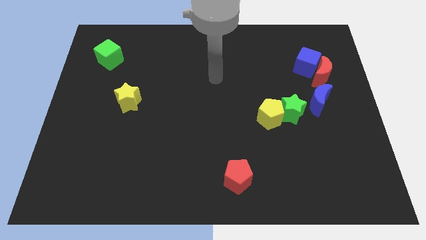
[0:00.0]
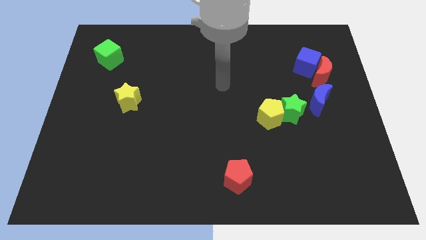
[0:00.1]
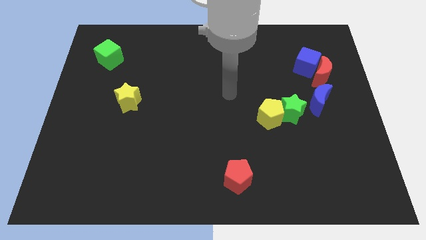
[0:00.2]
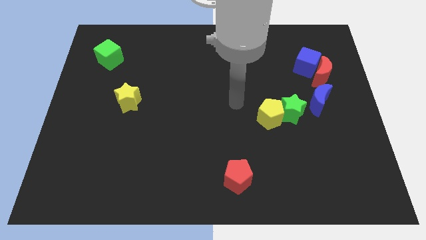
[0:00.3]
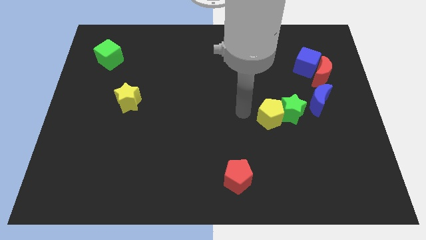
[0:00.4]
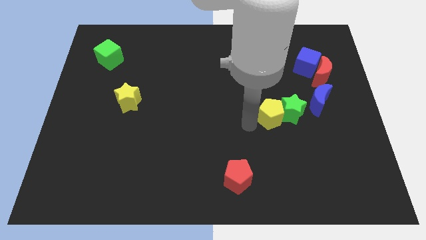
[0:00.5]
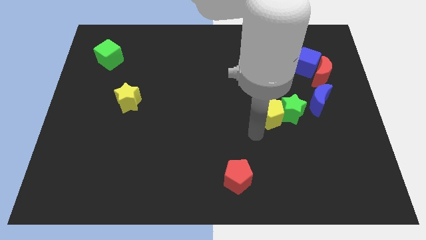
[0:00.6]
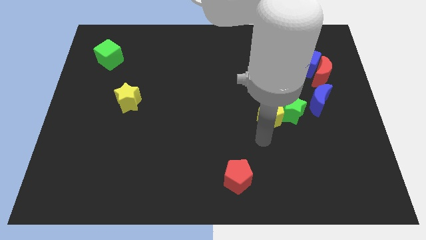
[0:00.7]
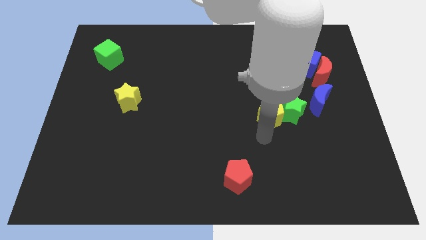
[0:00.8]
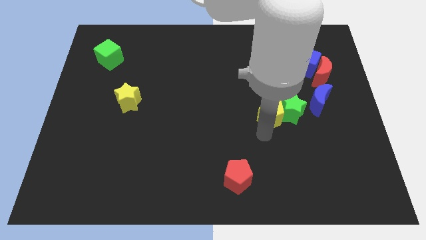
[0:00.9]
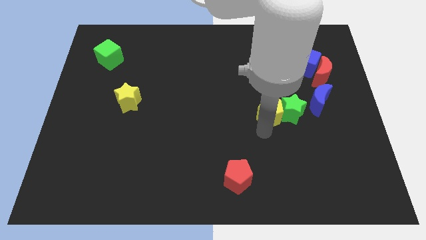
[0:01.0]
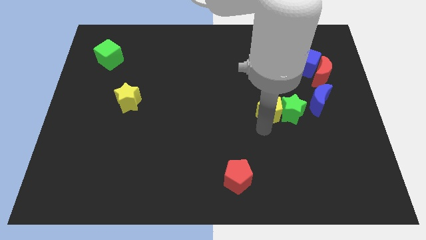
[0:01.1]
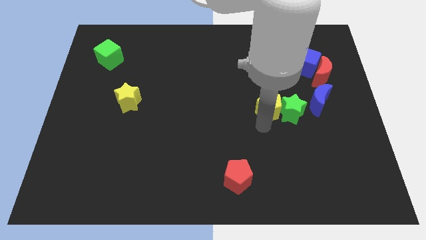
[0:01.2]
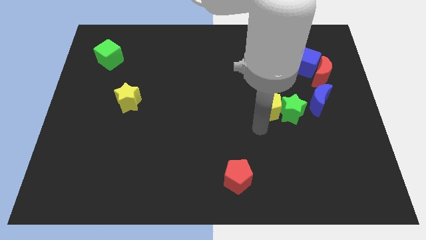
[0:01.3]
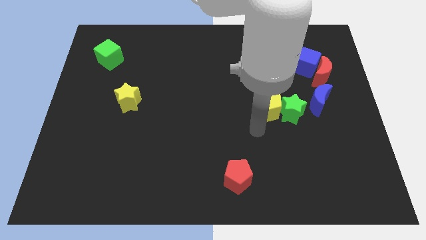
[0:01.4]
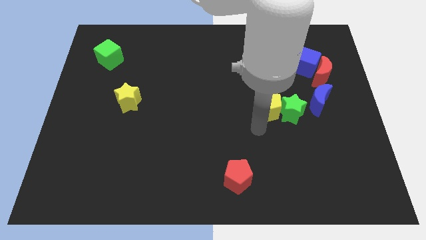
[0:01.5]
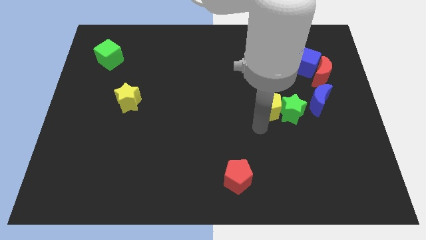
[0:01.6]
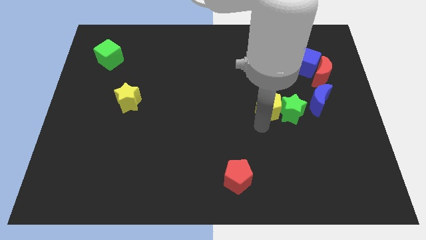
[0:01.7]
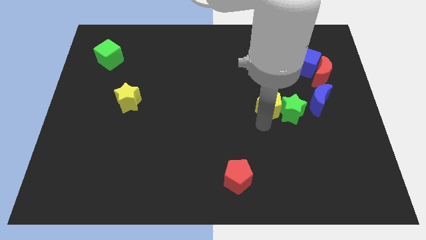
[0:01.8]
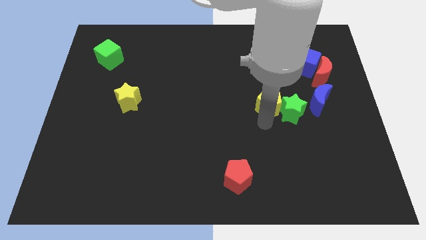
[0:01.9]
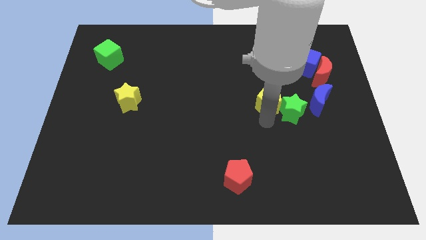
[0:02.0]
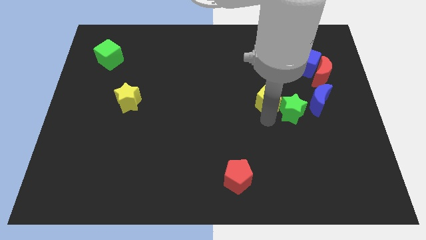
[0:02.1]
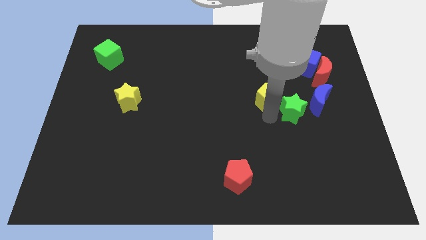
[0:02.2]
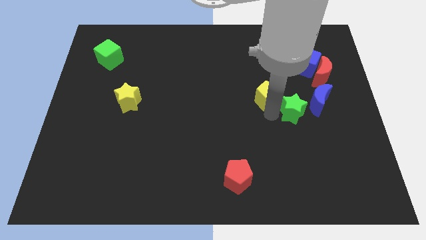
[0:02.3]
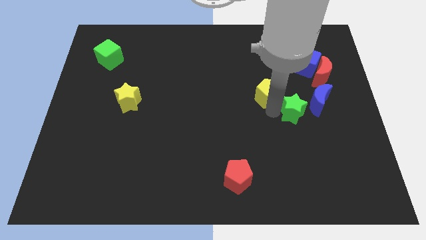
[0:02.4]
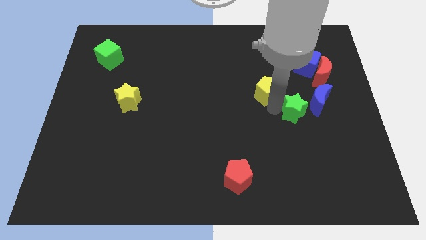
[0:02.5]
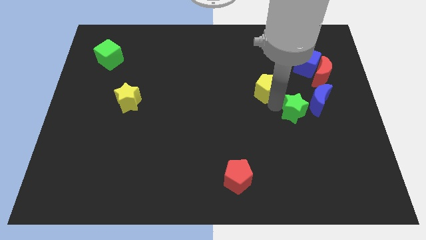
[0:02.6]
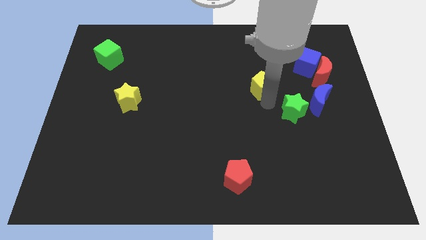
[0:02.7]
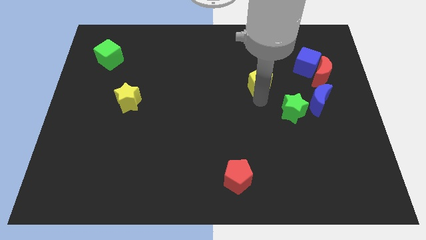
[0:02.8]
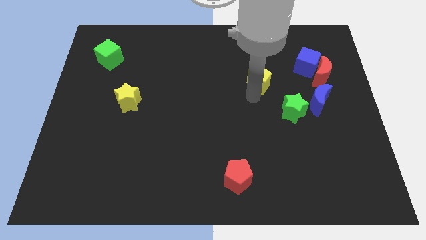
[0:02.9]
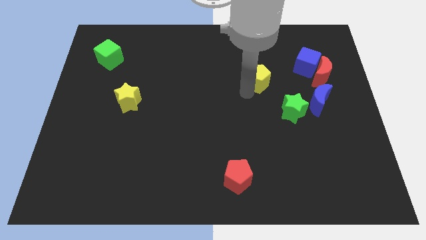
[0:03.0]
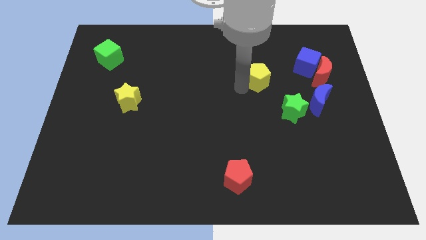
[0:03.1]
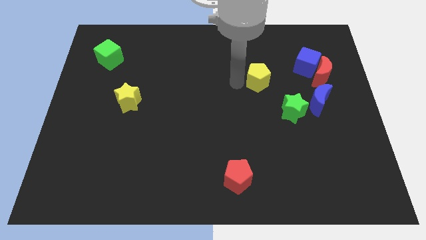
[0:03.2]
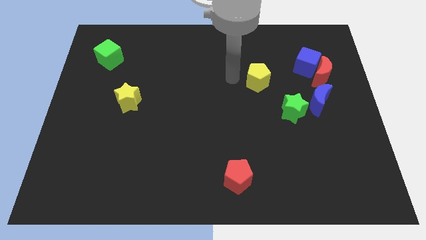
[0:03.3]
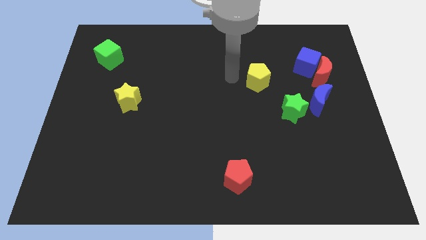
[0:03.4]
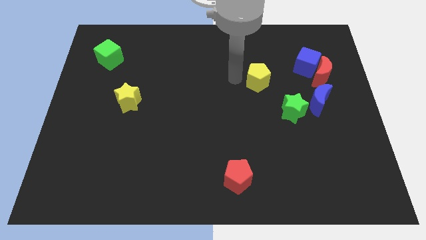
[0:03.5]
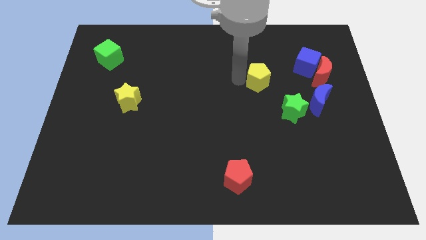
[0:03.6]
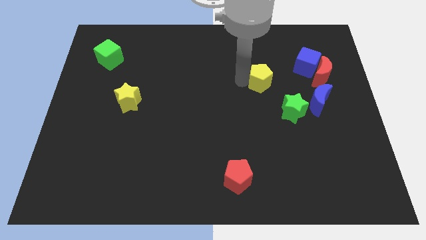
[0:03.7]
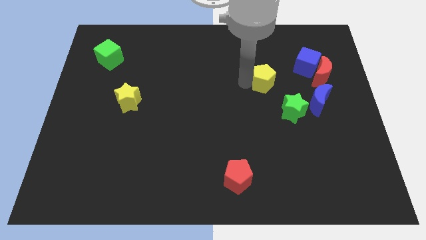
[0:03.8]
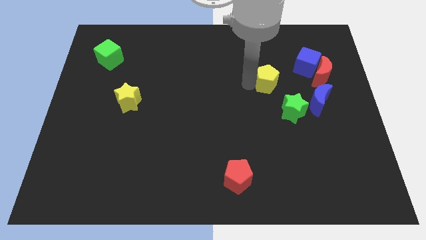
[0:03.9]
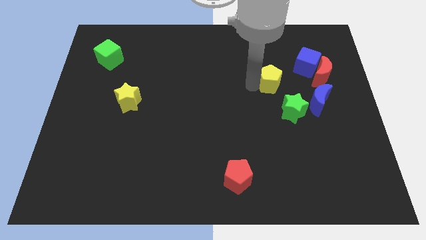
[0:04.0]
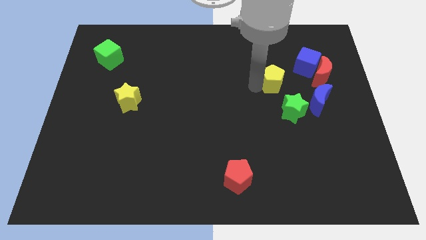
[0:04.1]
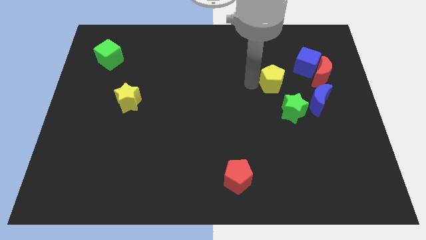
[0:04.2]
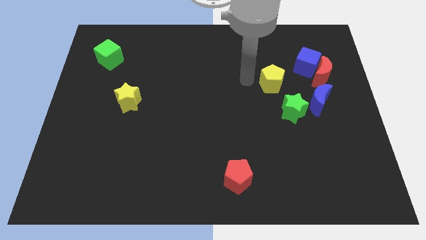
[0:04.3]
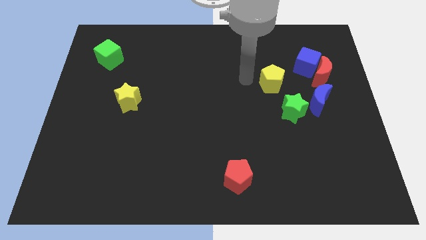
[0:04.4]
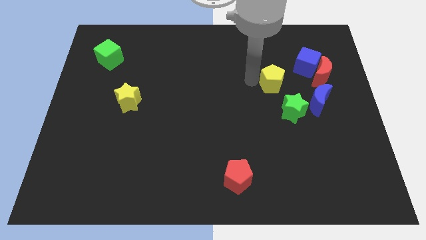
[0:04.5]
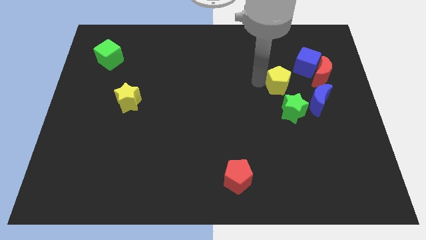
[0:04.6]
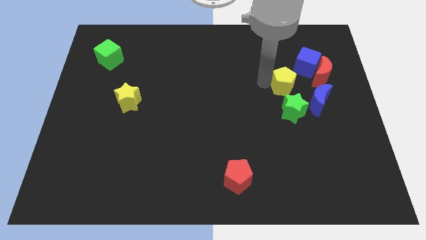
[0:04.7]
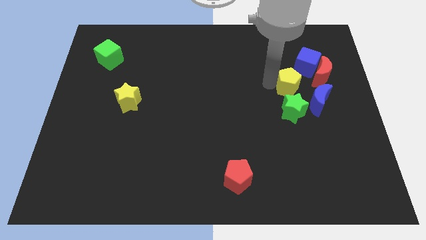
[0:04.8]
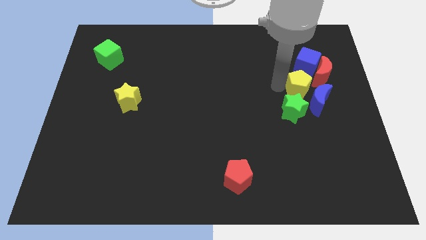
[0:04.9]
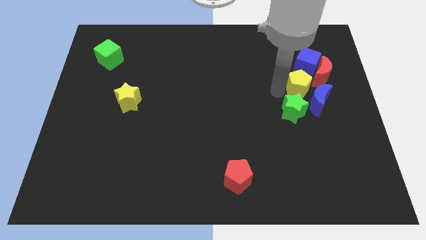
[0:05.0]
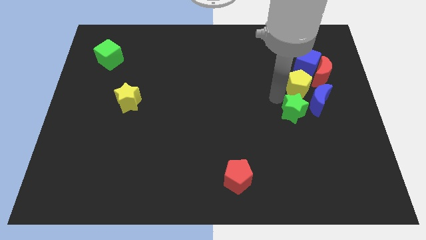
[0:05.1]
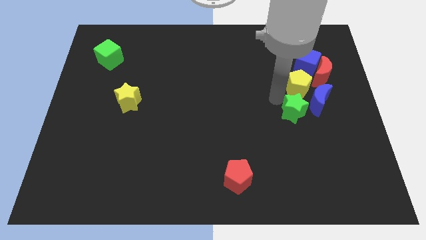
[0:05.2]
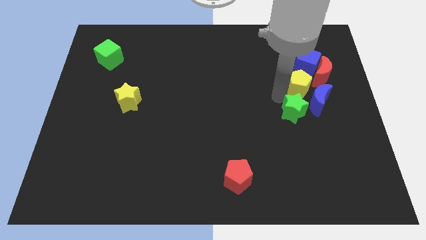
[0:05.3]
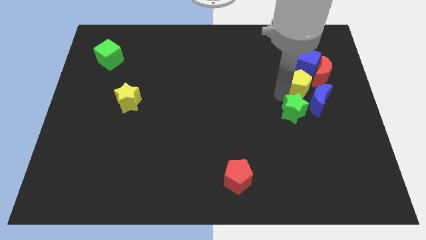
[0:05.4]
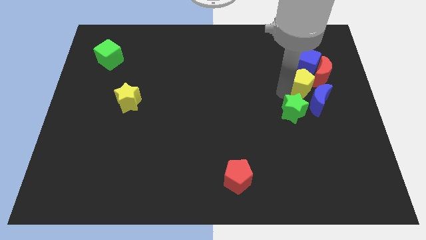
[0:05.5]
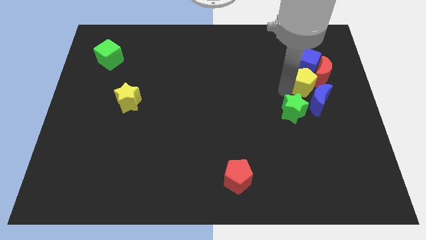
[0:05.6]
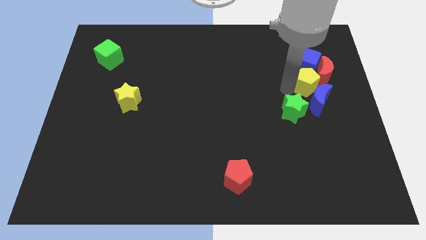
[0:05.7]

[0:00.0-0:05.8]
slide the yellow pentagon towards the red moon

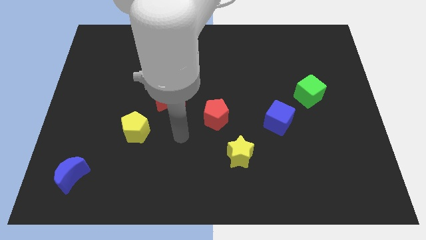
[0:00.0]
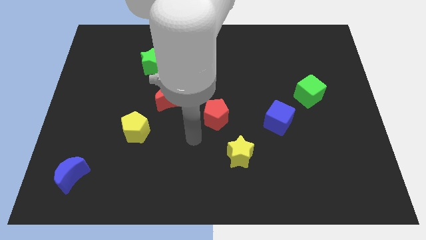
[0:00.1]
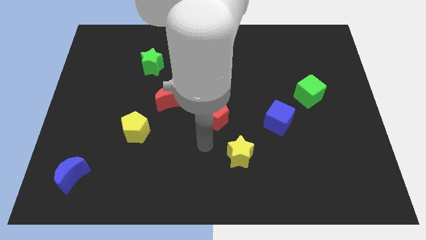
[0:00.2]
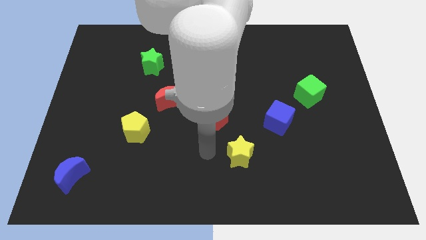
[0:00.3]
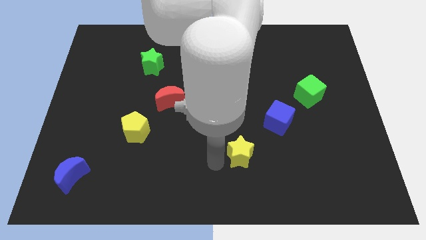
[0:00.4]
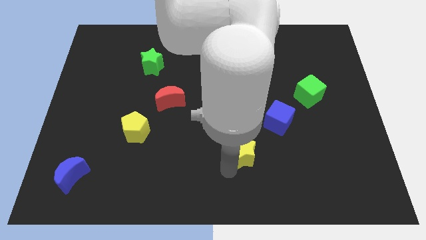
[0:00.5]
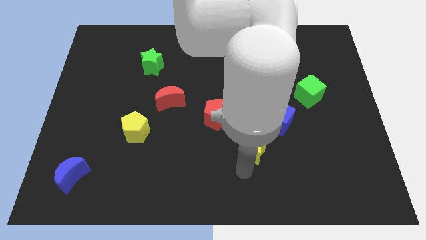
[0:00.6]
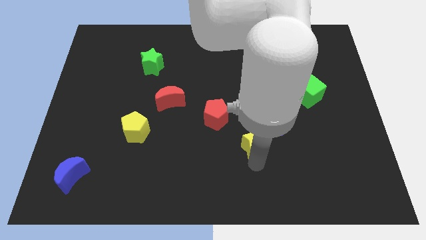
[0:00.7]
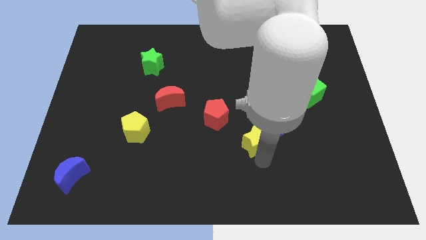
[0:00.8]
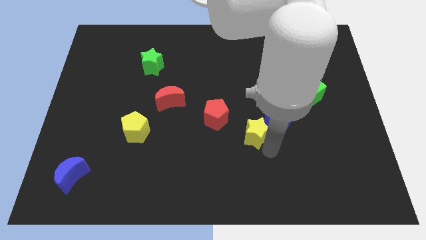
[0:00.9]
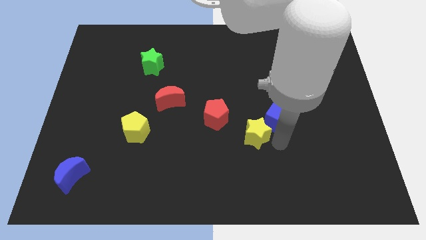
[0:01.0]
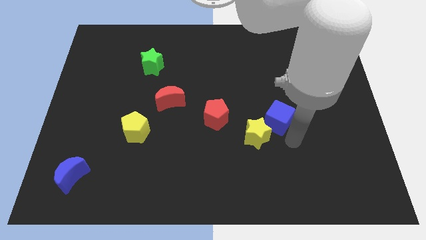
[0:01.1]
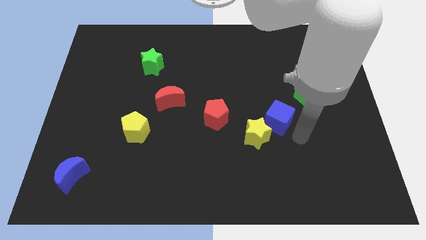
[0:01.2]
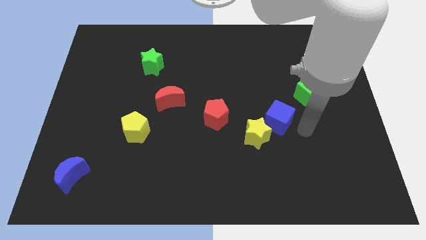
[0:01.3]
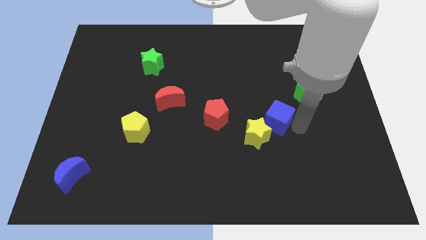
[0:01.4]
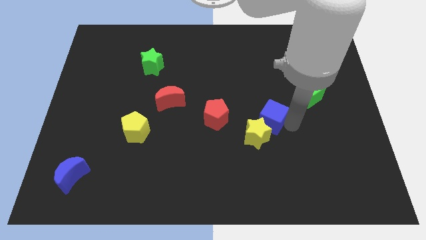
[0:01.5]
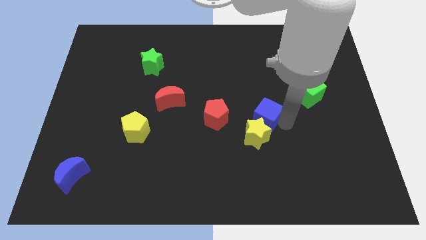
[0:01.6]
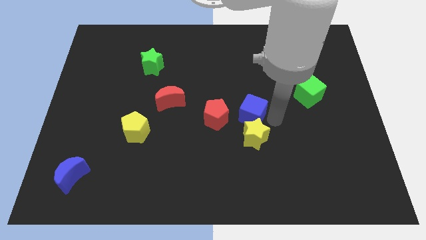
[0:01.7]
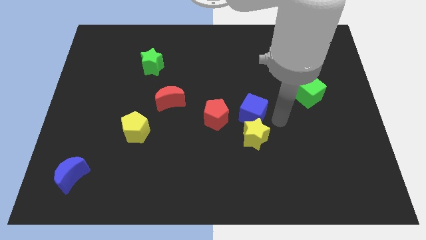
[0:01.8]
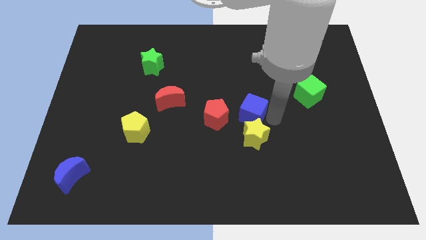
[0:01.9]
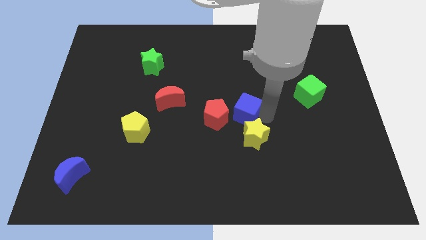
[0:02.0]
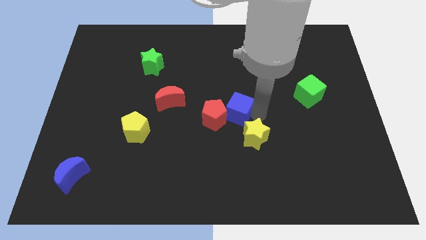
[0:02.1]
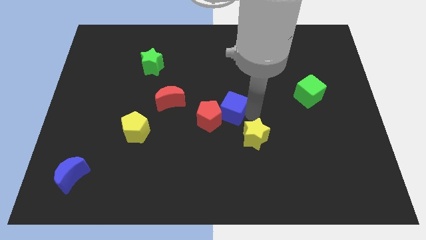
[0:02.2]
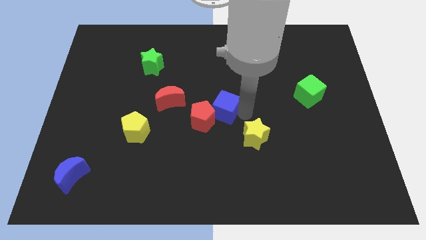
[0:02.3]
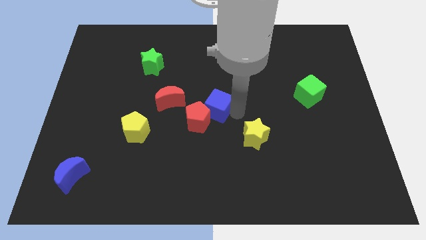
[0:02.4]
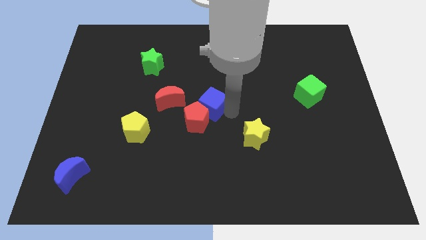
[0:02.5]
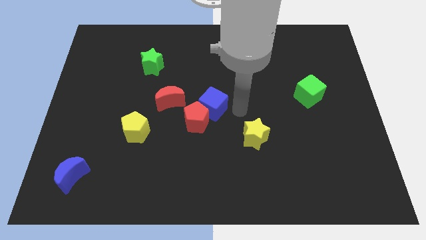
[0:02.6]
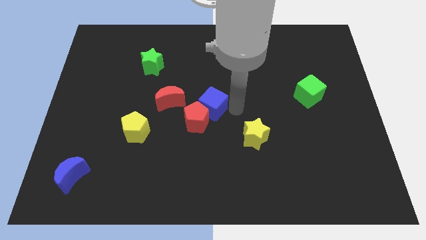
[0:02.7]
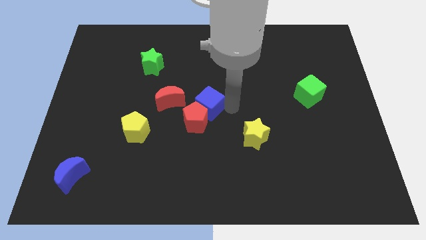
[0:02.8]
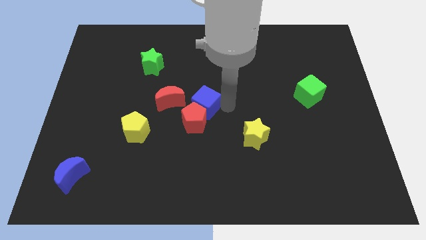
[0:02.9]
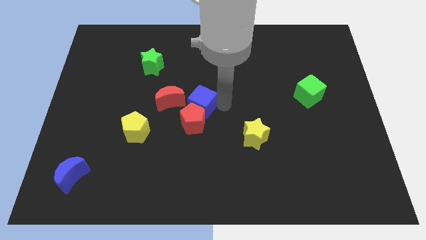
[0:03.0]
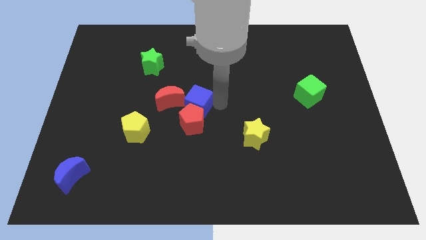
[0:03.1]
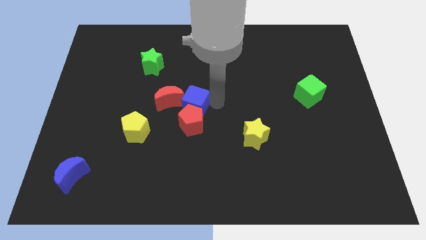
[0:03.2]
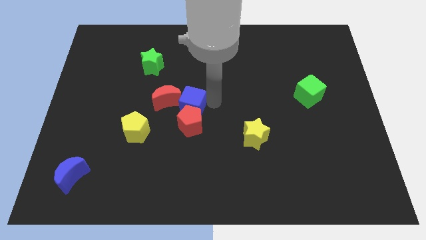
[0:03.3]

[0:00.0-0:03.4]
put the blue cube next to the red moon
